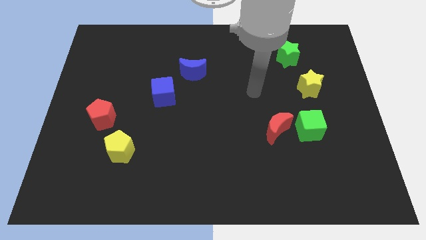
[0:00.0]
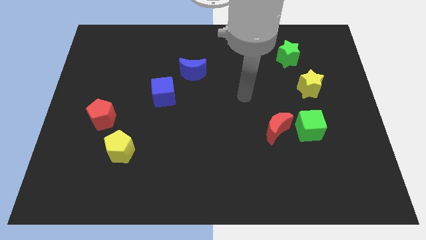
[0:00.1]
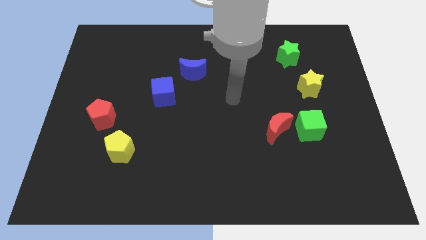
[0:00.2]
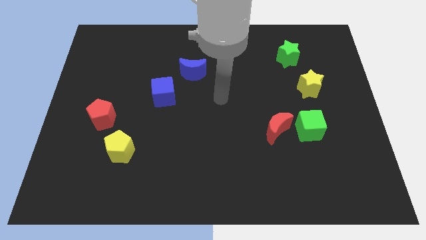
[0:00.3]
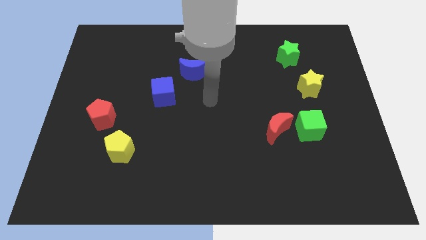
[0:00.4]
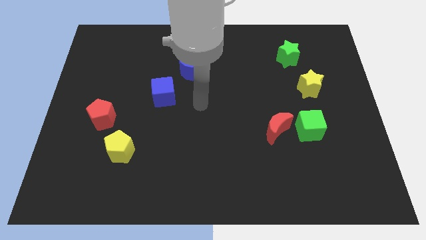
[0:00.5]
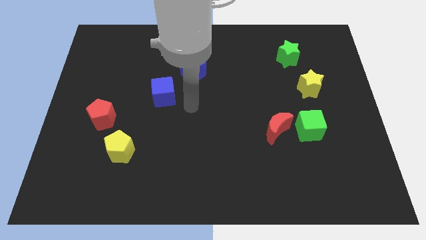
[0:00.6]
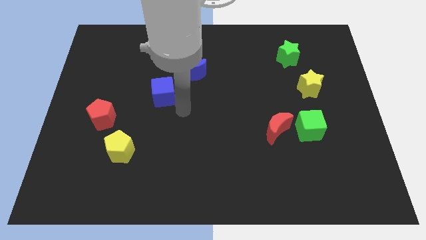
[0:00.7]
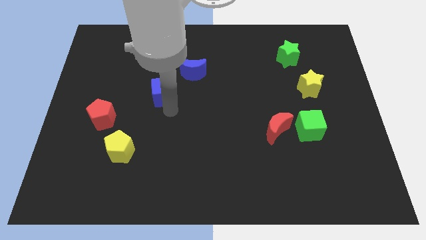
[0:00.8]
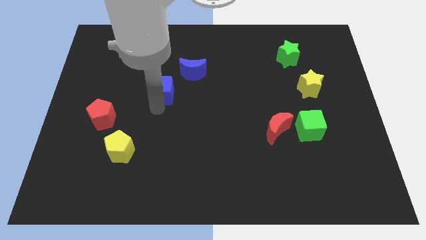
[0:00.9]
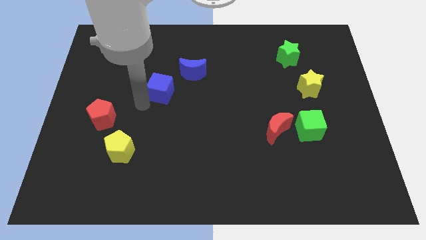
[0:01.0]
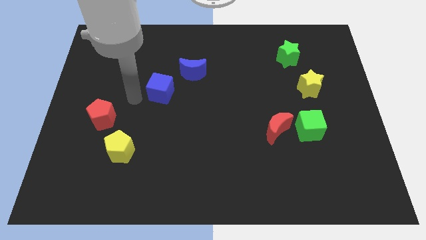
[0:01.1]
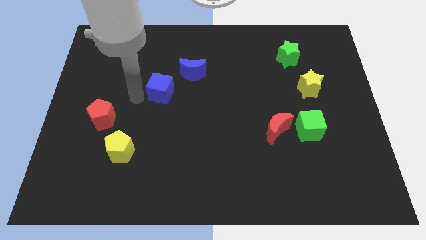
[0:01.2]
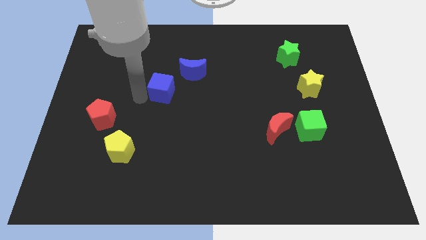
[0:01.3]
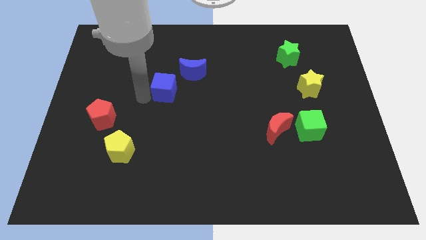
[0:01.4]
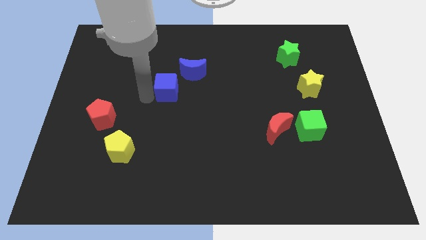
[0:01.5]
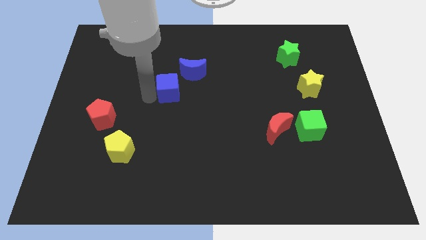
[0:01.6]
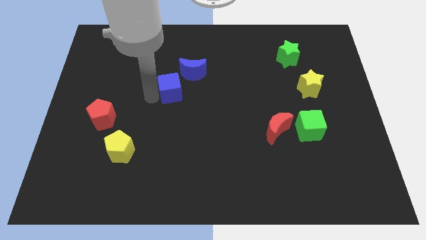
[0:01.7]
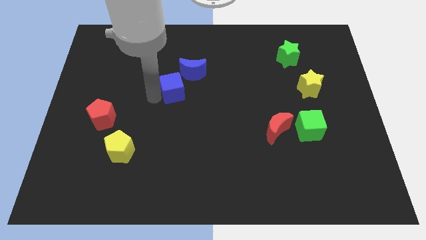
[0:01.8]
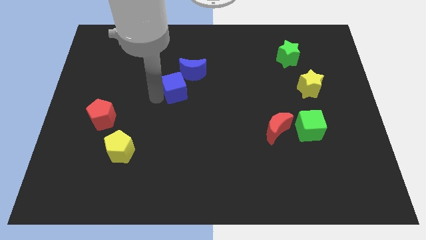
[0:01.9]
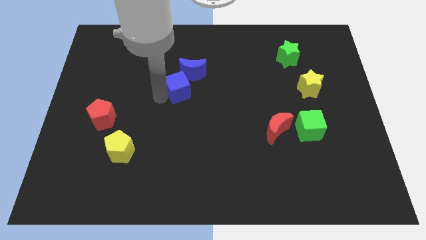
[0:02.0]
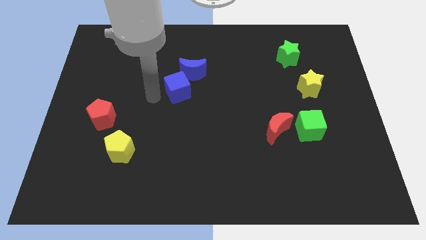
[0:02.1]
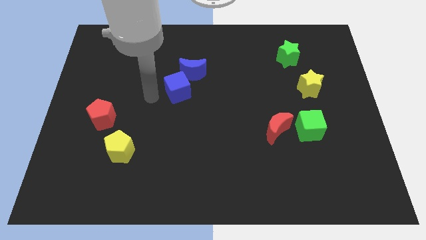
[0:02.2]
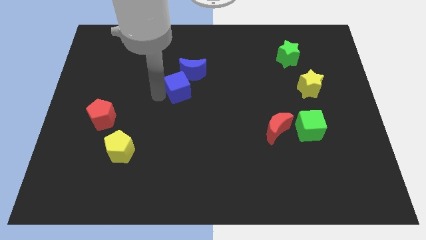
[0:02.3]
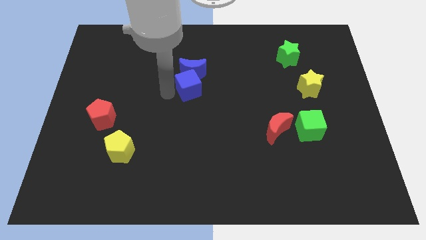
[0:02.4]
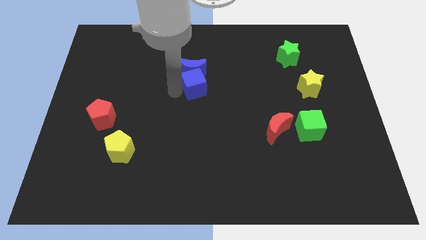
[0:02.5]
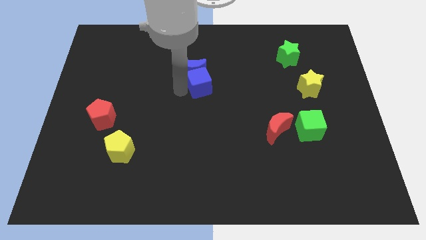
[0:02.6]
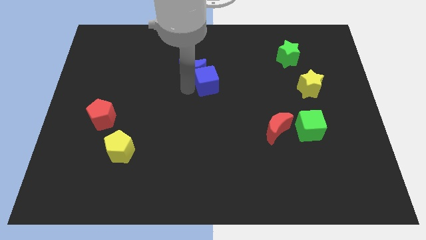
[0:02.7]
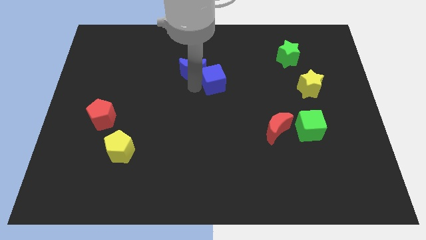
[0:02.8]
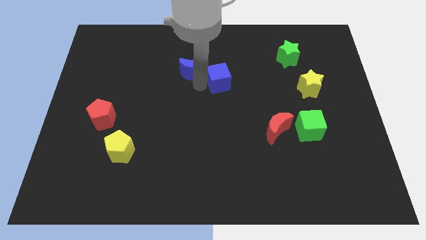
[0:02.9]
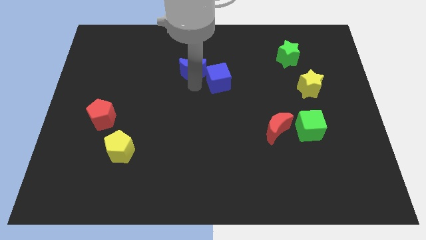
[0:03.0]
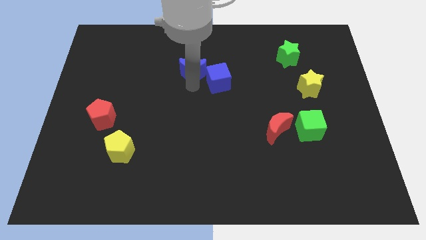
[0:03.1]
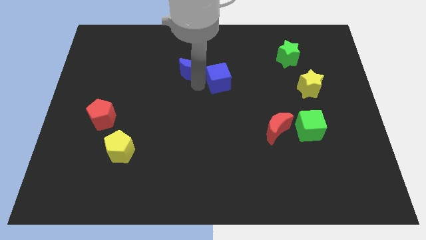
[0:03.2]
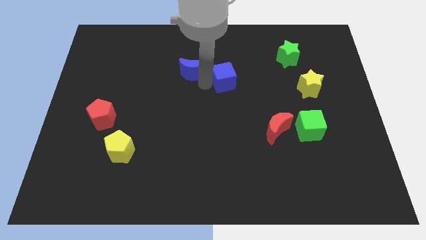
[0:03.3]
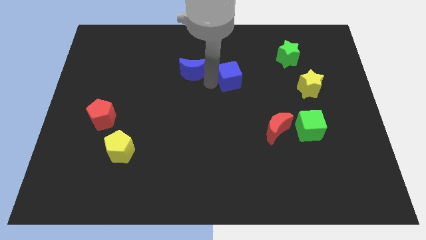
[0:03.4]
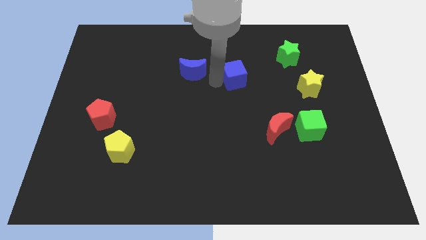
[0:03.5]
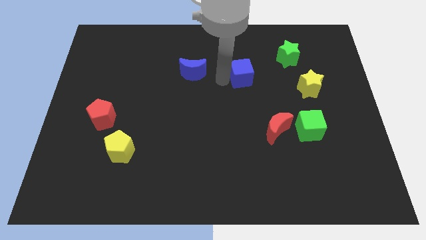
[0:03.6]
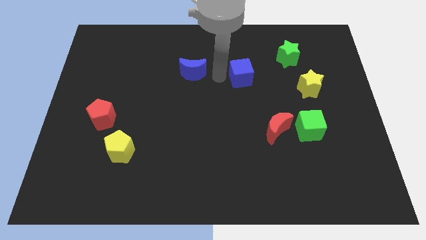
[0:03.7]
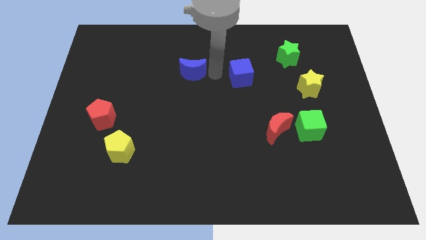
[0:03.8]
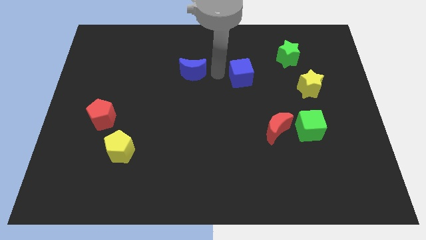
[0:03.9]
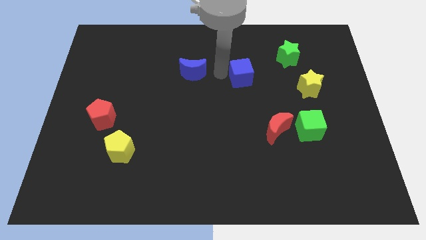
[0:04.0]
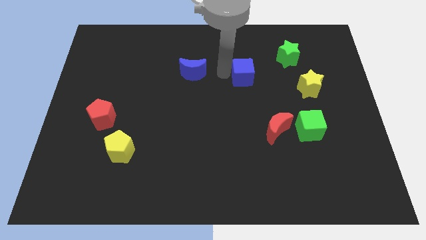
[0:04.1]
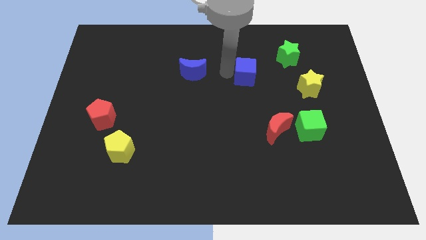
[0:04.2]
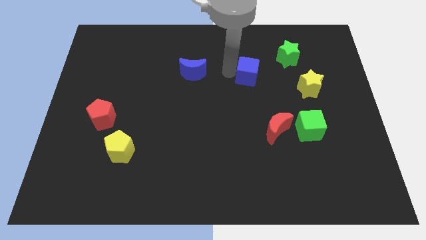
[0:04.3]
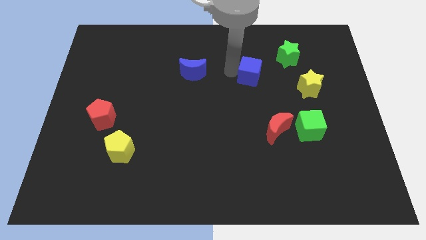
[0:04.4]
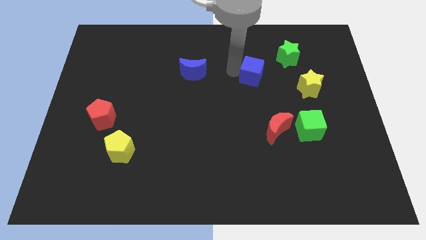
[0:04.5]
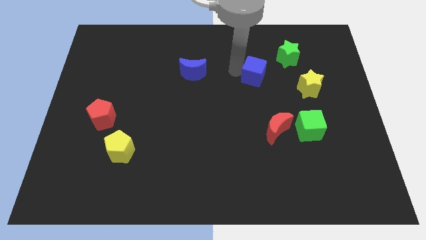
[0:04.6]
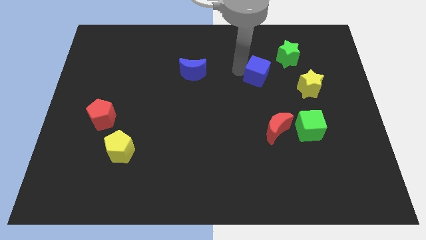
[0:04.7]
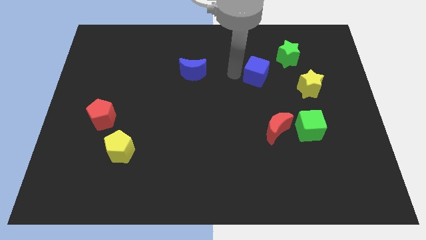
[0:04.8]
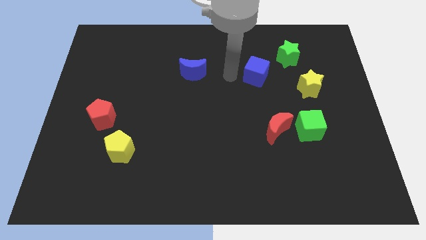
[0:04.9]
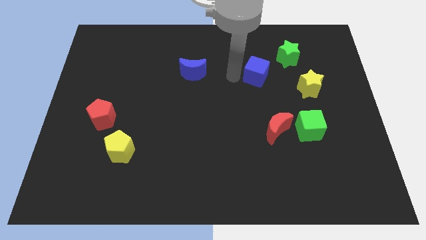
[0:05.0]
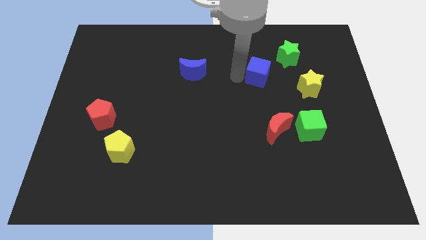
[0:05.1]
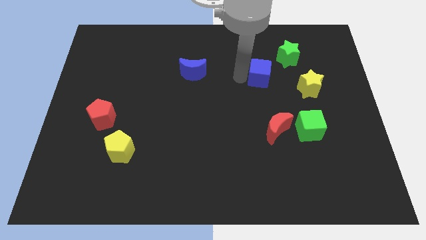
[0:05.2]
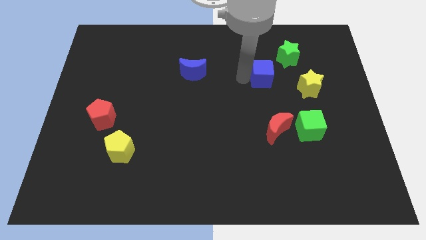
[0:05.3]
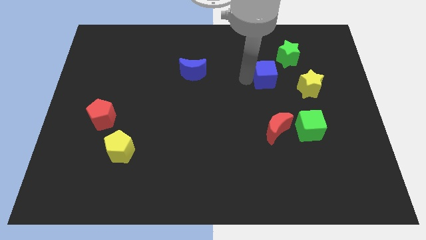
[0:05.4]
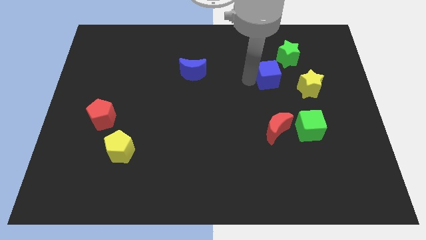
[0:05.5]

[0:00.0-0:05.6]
move the blue cube to the top left of the yellow star

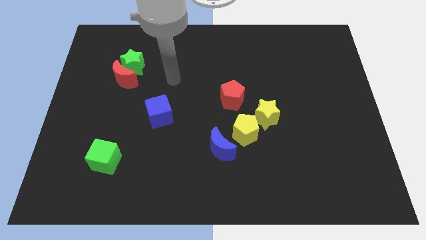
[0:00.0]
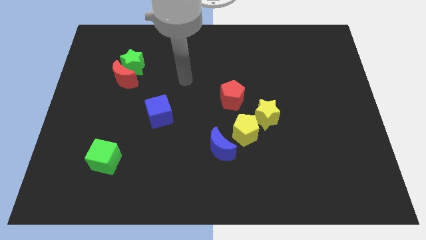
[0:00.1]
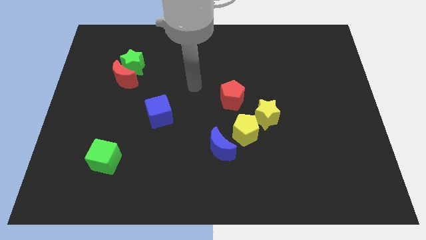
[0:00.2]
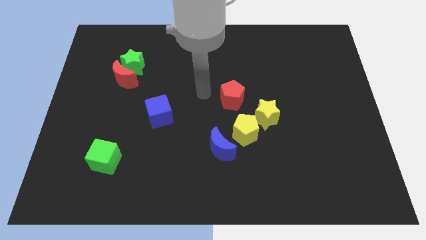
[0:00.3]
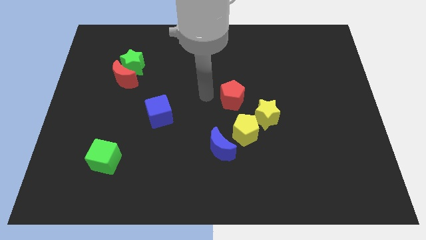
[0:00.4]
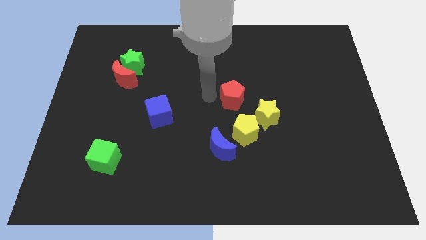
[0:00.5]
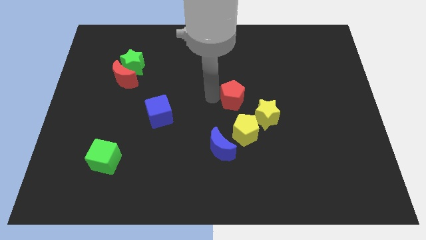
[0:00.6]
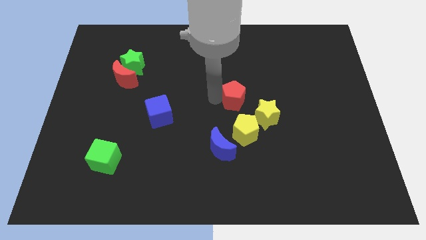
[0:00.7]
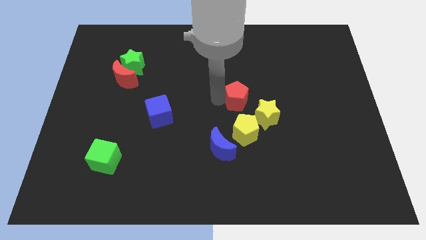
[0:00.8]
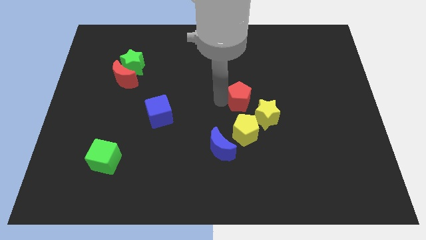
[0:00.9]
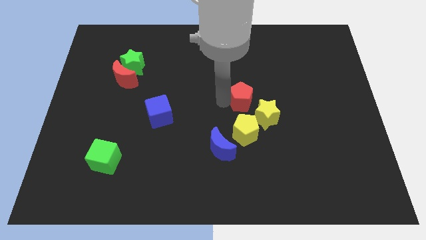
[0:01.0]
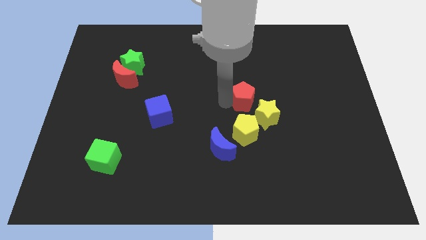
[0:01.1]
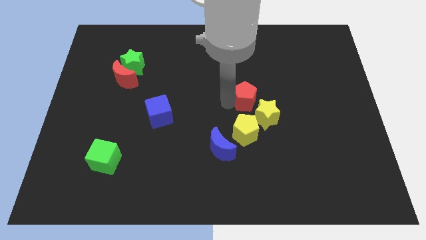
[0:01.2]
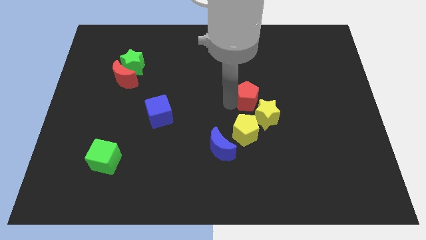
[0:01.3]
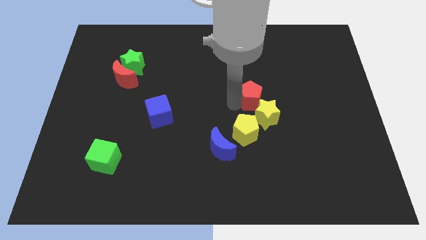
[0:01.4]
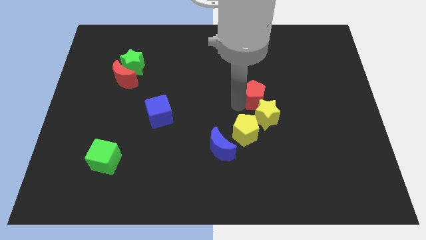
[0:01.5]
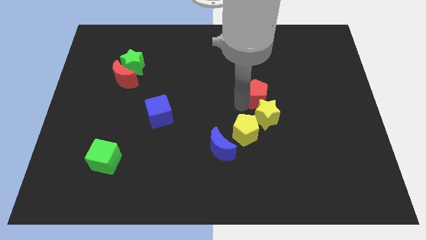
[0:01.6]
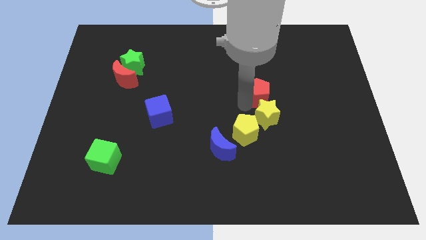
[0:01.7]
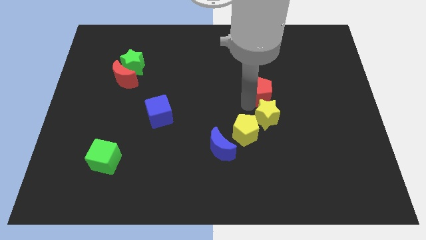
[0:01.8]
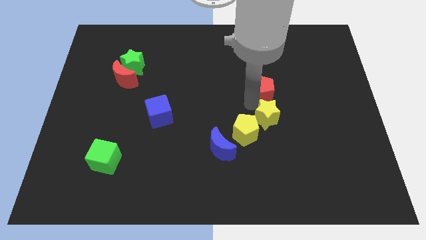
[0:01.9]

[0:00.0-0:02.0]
push the red pentagon diagonally up and to the right of the yellow star
